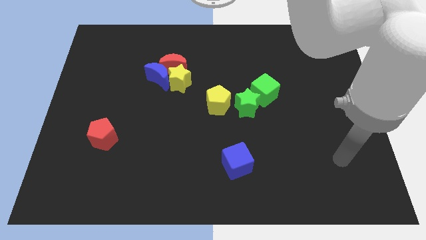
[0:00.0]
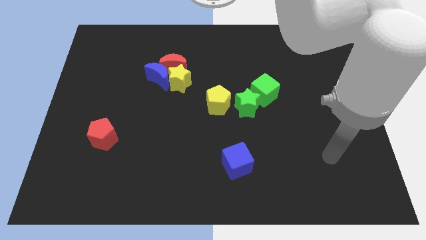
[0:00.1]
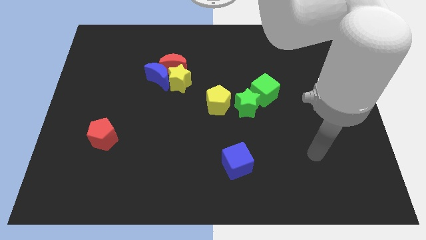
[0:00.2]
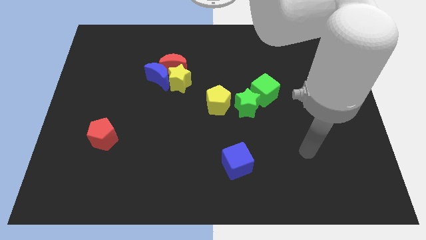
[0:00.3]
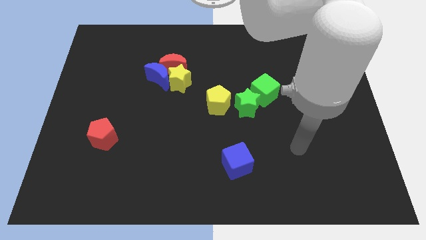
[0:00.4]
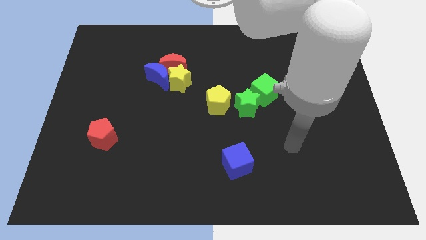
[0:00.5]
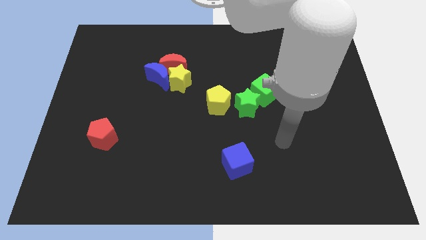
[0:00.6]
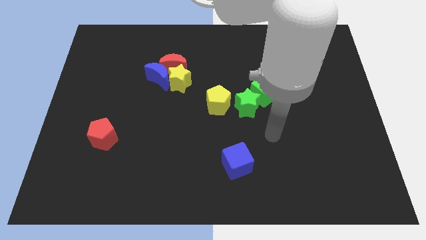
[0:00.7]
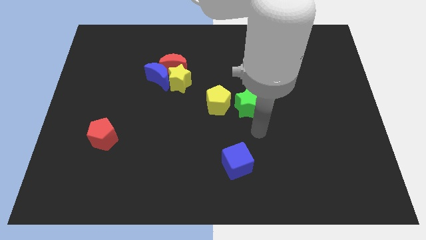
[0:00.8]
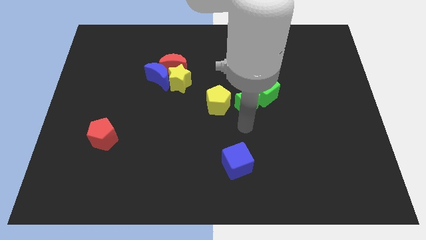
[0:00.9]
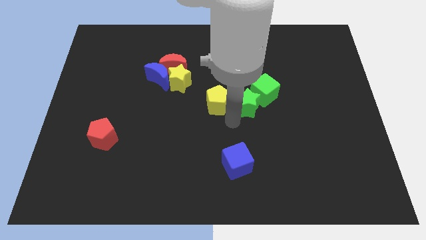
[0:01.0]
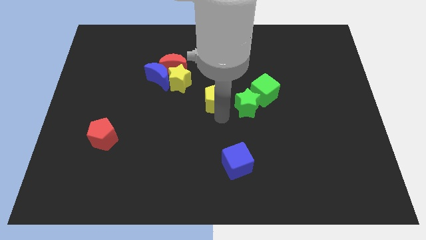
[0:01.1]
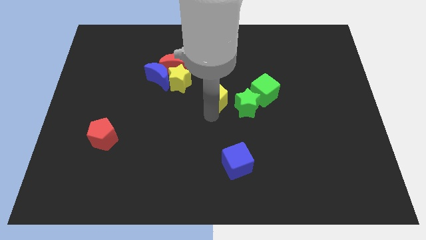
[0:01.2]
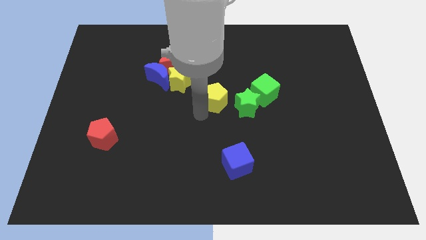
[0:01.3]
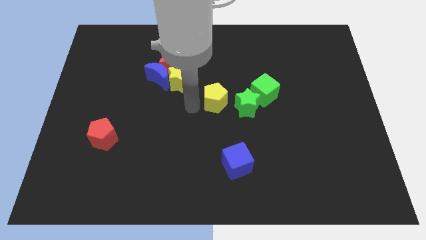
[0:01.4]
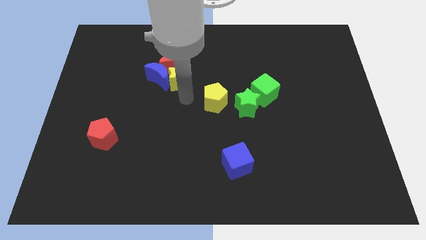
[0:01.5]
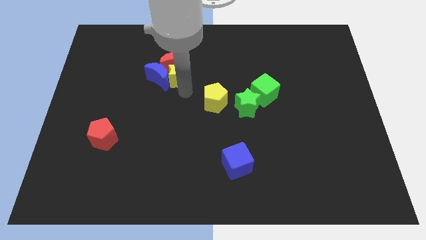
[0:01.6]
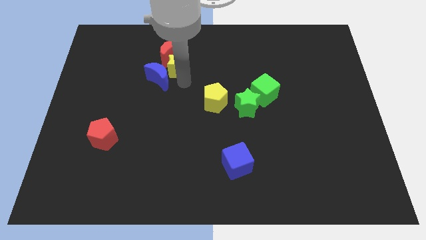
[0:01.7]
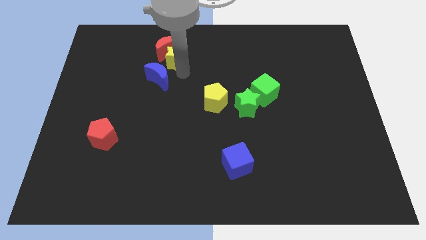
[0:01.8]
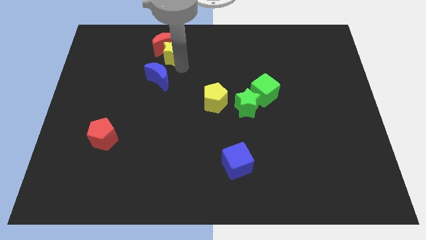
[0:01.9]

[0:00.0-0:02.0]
separate the blue moon from the red moon and yellow star

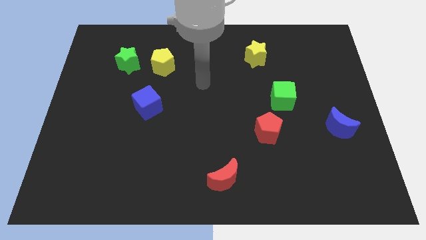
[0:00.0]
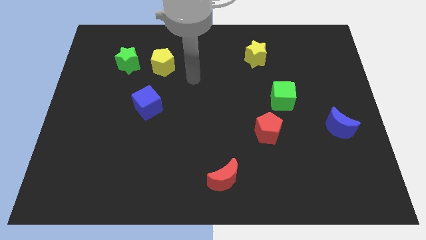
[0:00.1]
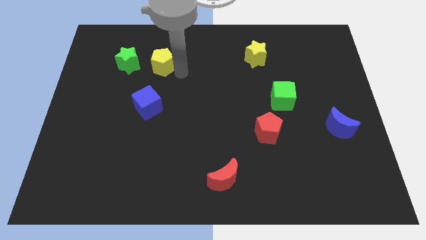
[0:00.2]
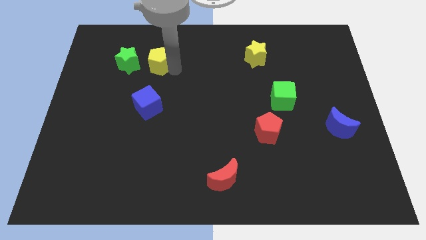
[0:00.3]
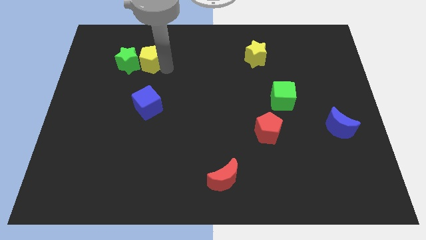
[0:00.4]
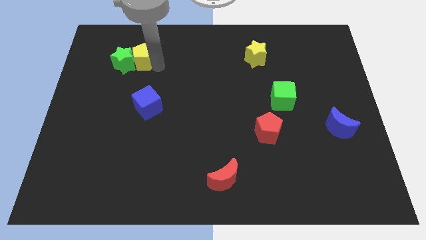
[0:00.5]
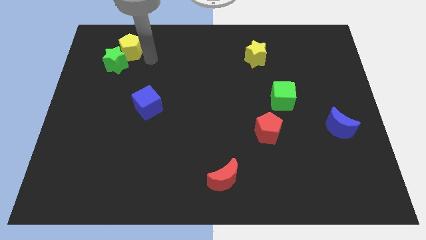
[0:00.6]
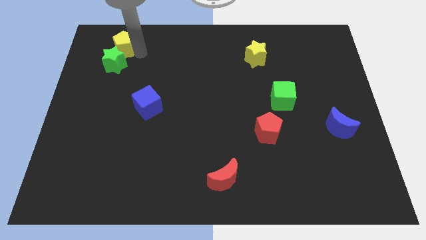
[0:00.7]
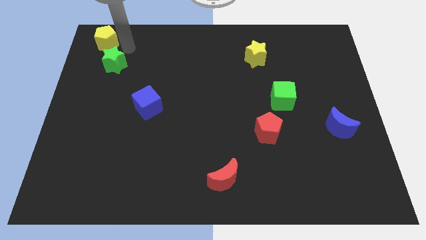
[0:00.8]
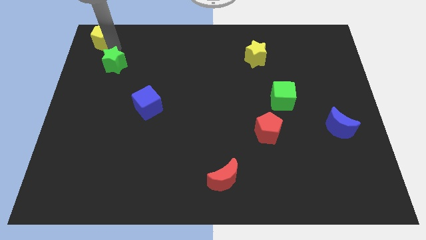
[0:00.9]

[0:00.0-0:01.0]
separate the green star from the yellow pentagon

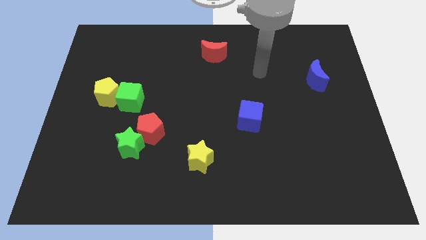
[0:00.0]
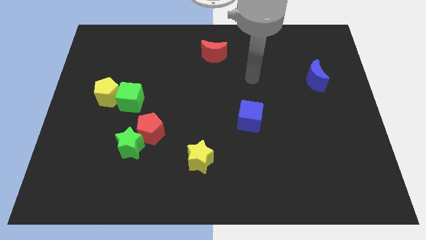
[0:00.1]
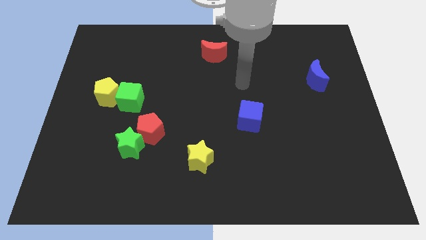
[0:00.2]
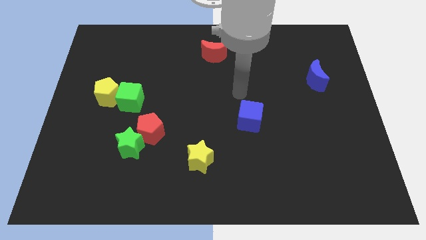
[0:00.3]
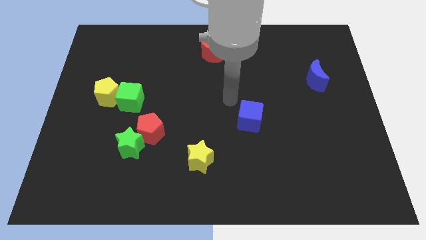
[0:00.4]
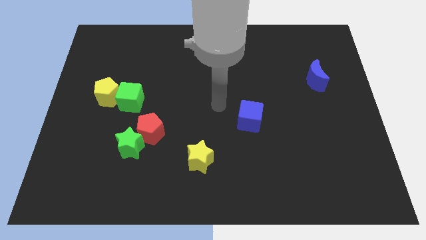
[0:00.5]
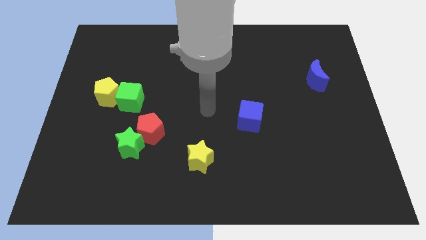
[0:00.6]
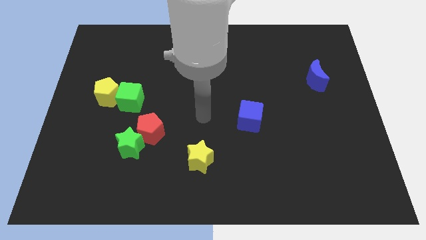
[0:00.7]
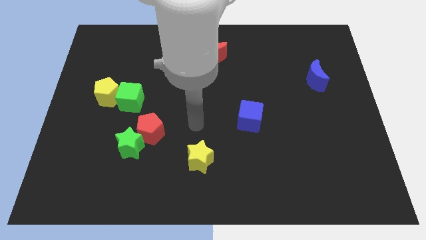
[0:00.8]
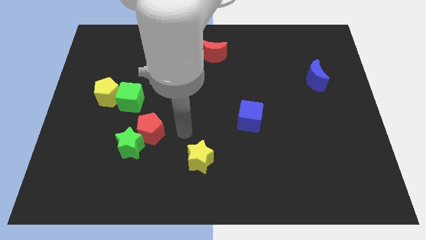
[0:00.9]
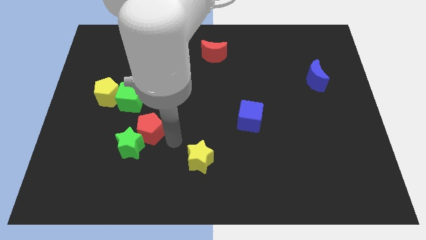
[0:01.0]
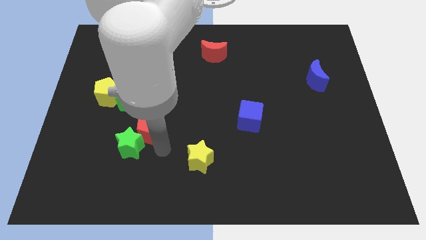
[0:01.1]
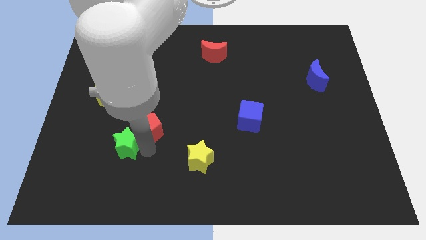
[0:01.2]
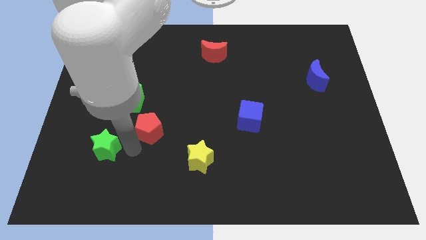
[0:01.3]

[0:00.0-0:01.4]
pull the red pentagon apart from the green star

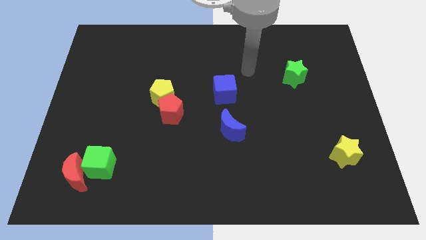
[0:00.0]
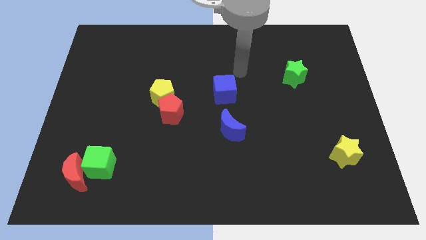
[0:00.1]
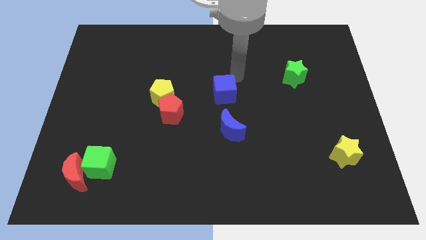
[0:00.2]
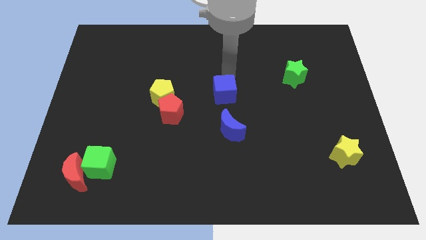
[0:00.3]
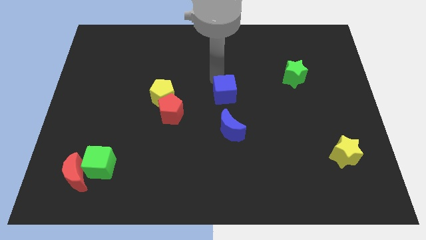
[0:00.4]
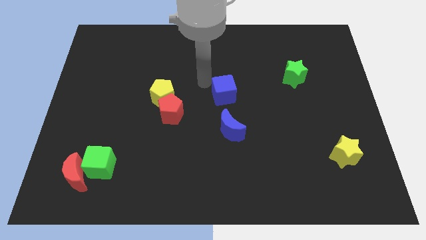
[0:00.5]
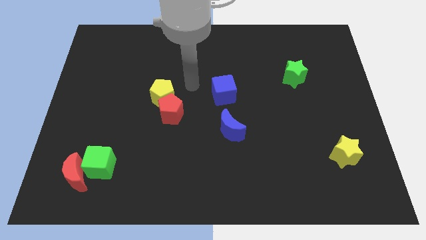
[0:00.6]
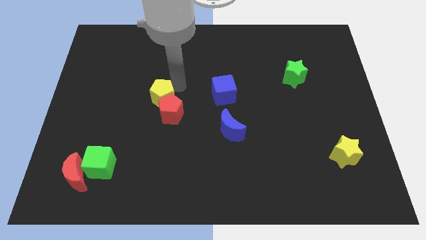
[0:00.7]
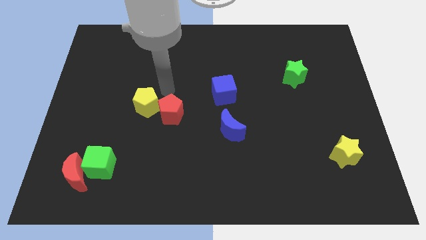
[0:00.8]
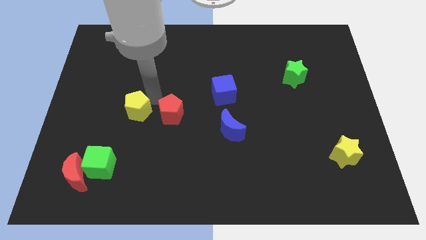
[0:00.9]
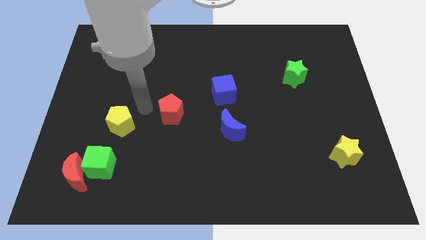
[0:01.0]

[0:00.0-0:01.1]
separate the red pentagon from the yellow pentagon

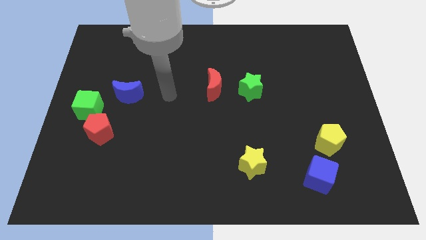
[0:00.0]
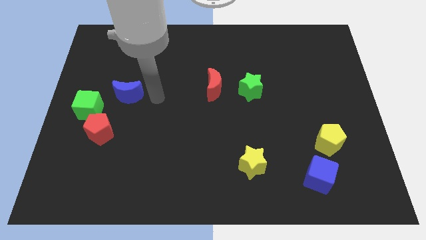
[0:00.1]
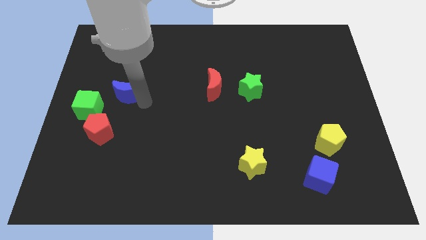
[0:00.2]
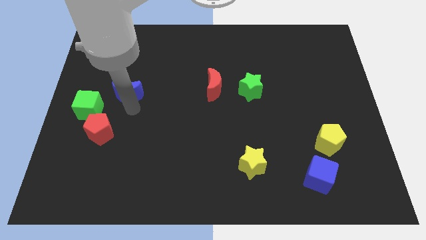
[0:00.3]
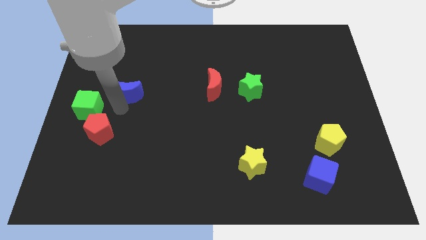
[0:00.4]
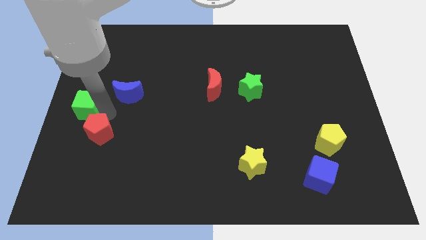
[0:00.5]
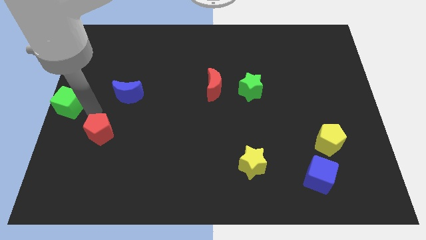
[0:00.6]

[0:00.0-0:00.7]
pull the red pentagon apart from the green cube

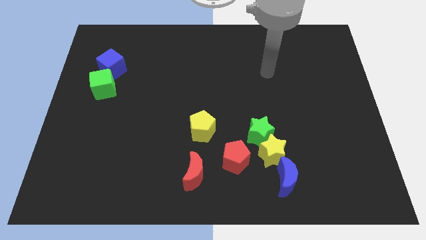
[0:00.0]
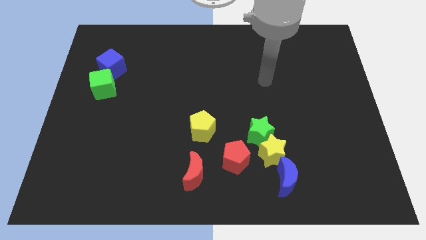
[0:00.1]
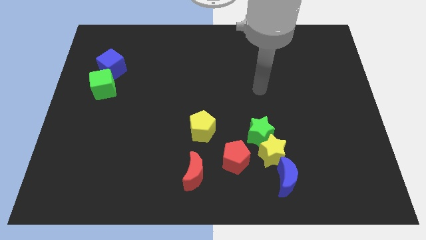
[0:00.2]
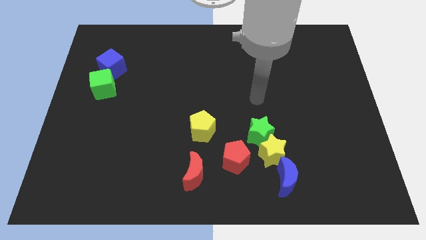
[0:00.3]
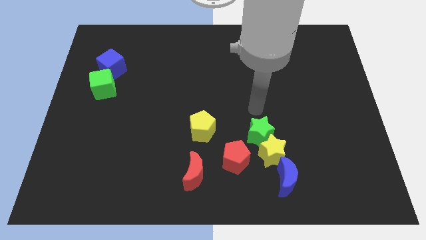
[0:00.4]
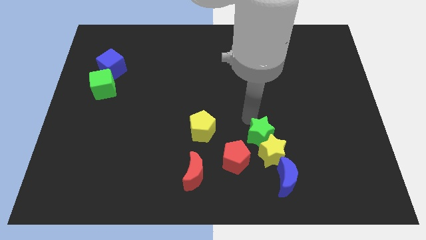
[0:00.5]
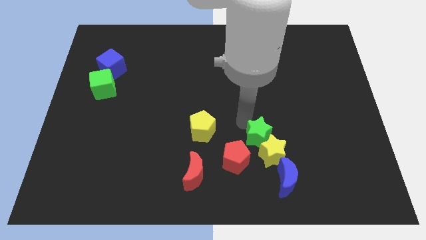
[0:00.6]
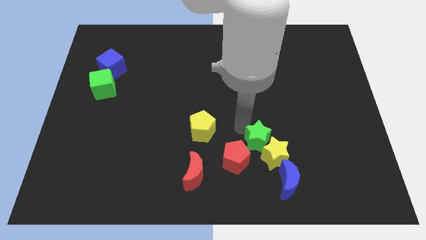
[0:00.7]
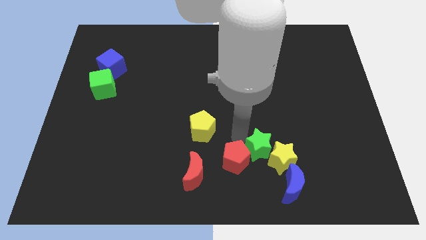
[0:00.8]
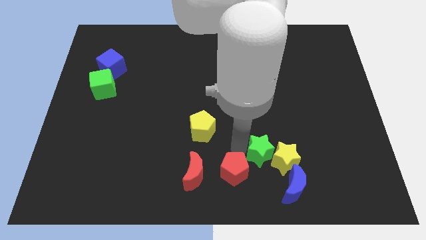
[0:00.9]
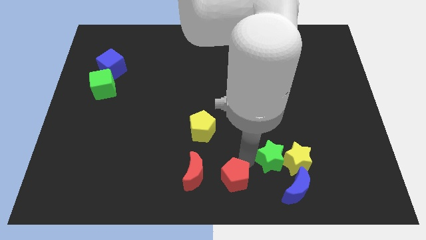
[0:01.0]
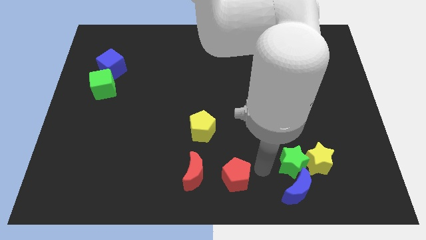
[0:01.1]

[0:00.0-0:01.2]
pull the yellow star apart from the group

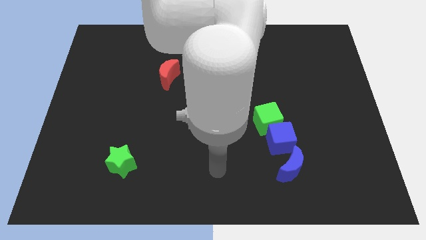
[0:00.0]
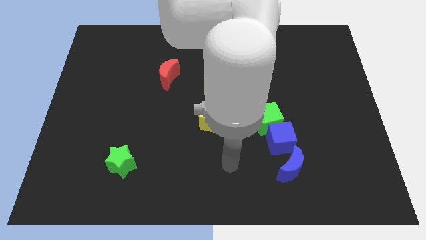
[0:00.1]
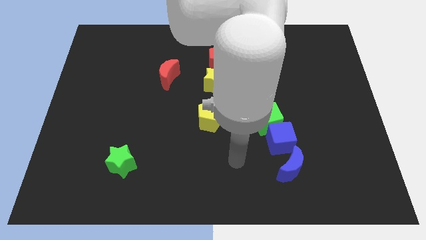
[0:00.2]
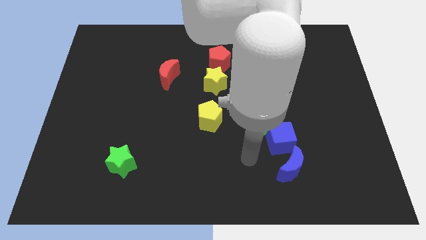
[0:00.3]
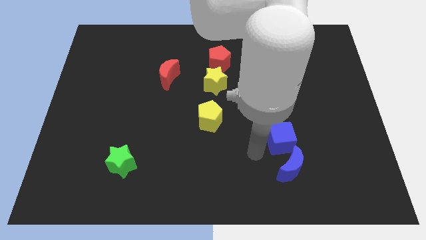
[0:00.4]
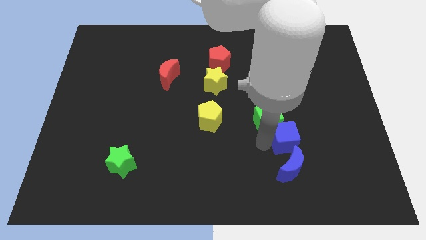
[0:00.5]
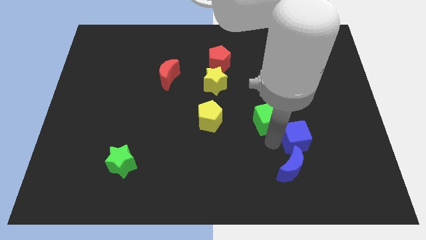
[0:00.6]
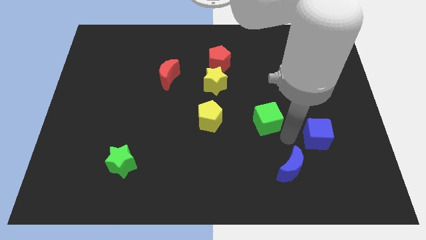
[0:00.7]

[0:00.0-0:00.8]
separate the green cube from the blue cube

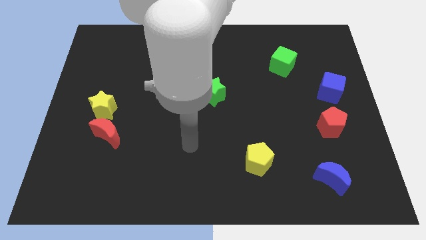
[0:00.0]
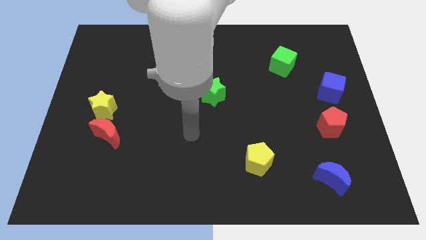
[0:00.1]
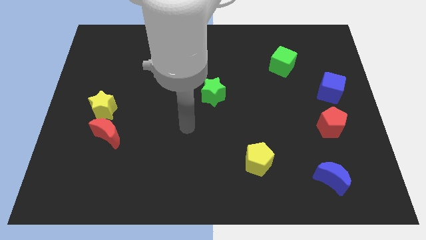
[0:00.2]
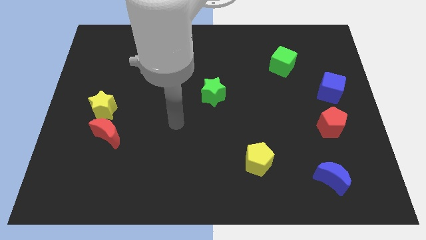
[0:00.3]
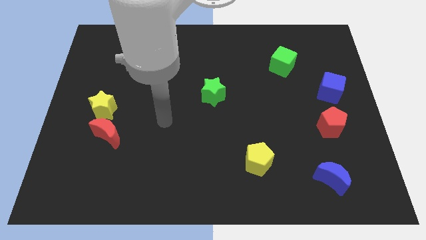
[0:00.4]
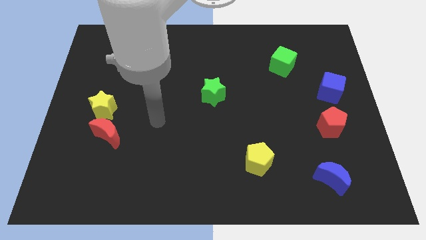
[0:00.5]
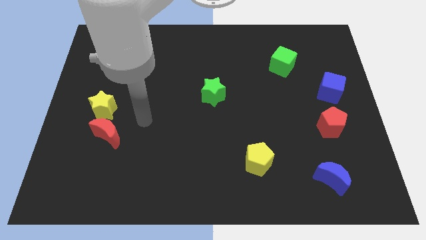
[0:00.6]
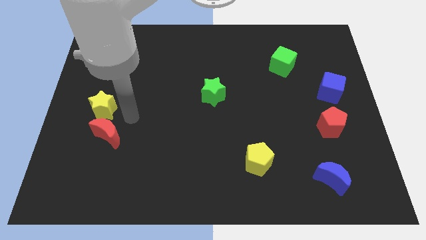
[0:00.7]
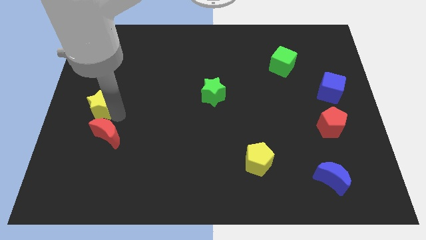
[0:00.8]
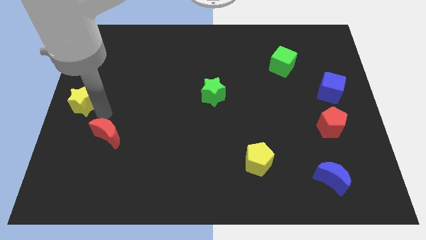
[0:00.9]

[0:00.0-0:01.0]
separate the red moon from the yellow star
